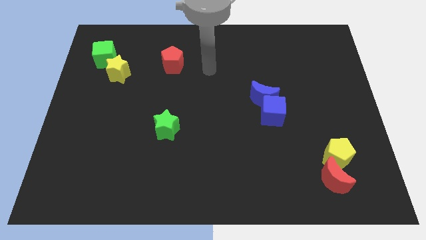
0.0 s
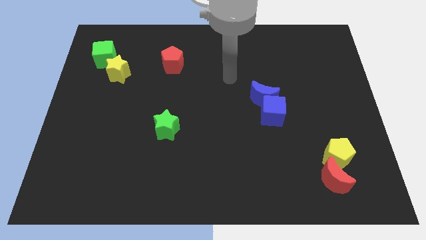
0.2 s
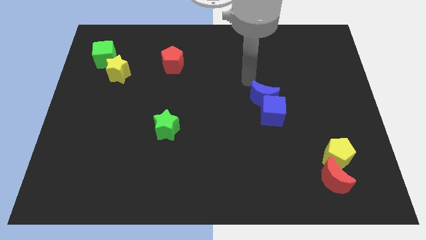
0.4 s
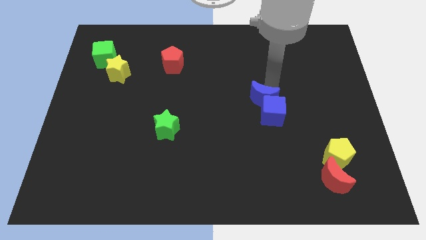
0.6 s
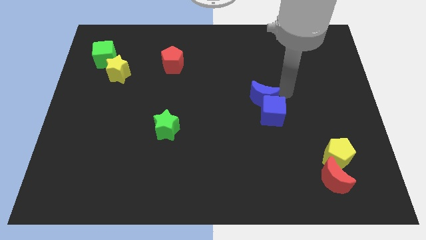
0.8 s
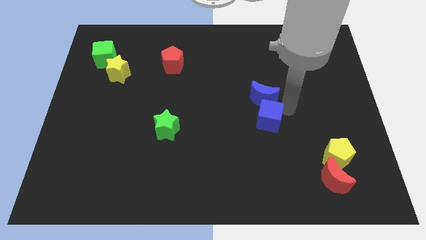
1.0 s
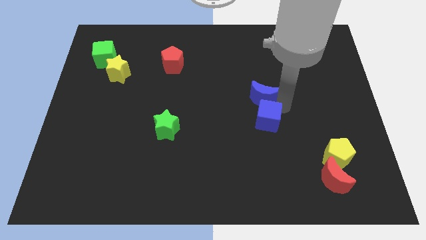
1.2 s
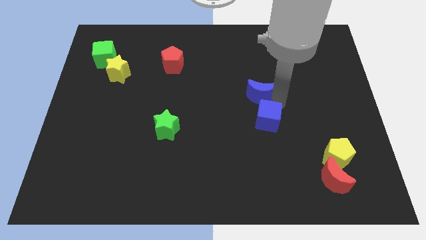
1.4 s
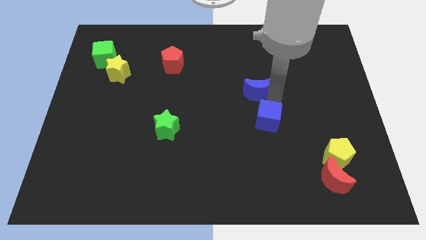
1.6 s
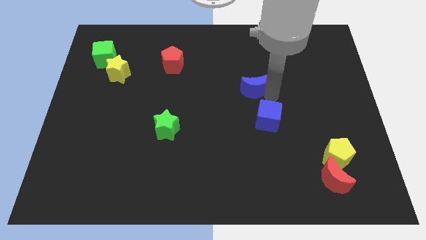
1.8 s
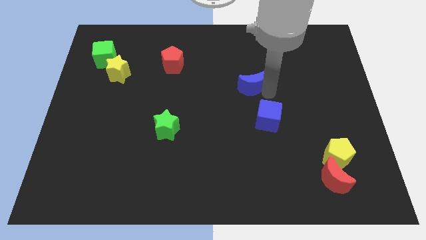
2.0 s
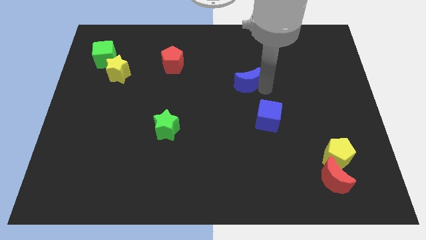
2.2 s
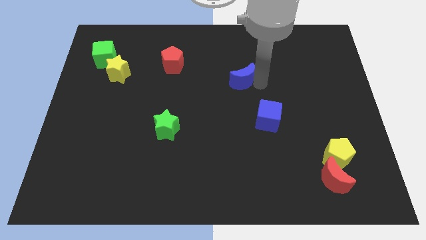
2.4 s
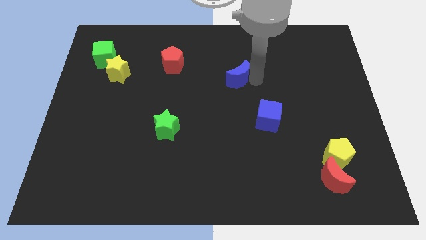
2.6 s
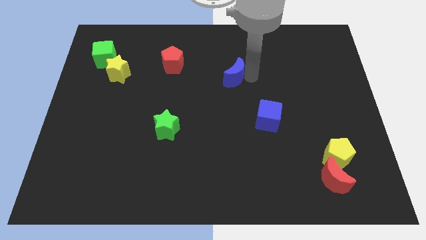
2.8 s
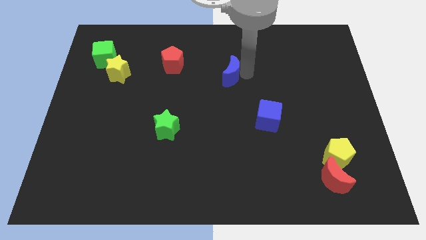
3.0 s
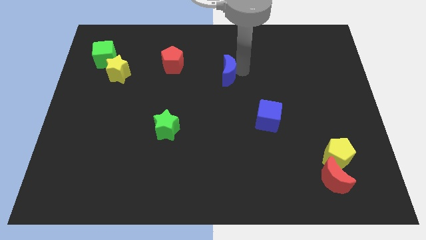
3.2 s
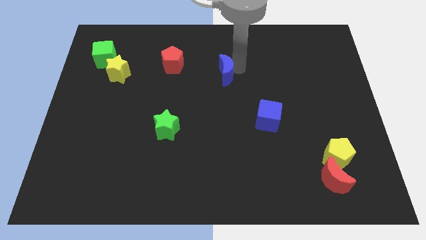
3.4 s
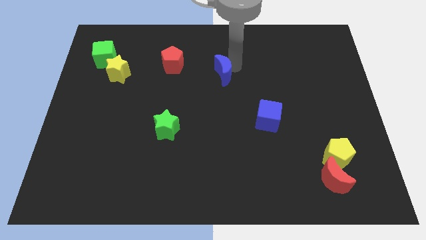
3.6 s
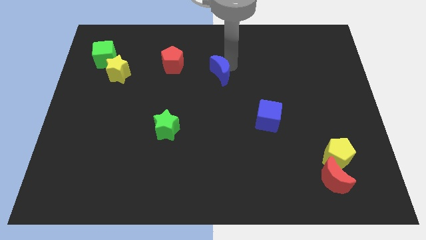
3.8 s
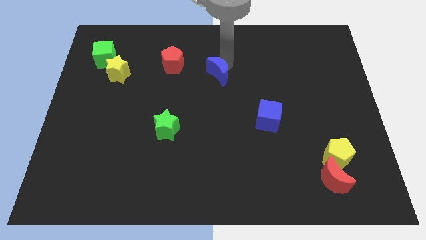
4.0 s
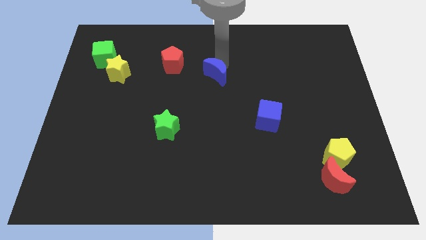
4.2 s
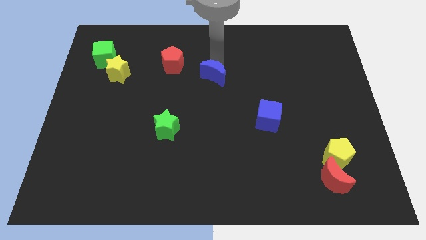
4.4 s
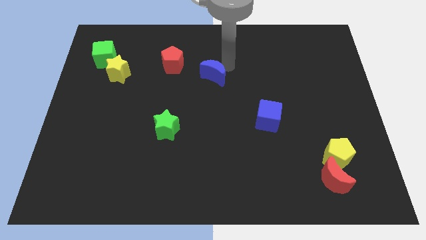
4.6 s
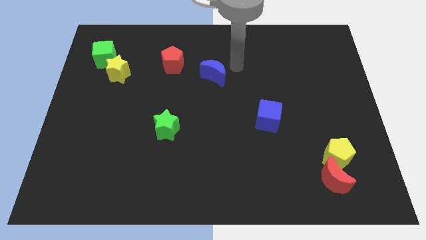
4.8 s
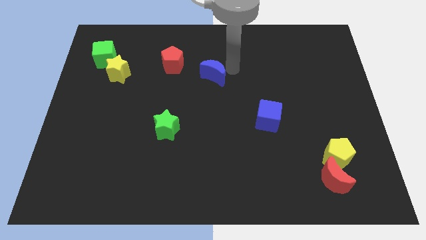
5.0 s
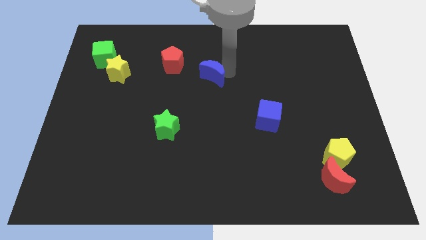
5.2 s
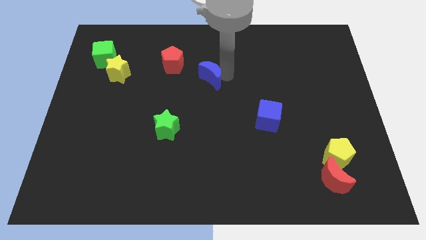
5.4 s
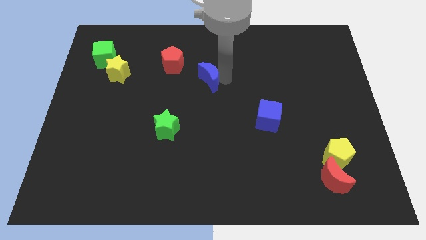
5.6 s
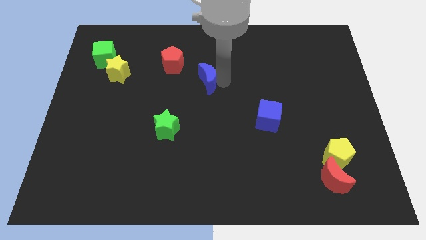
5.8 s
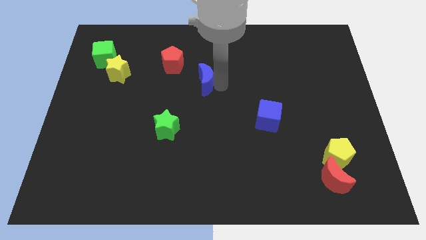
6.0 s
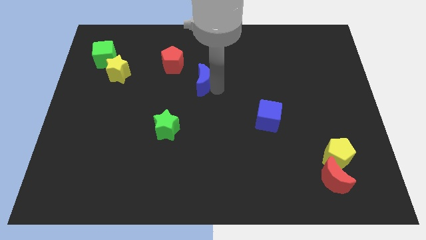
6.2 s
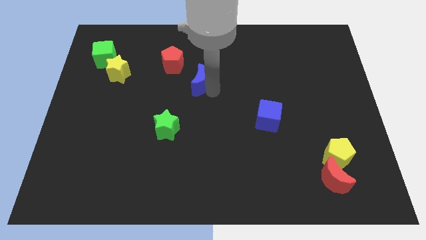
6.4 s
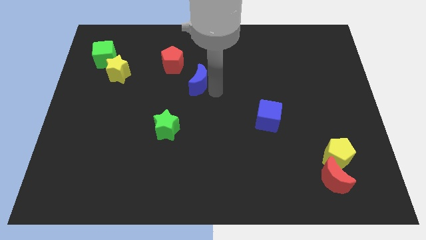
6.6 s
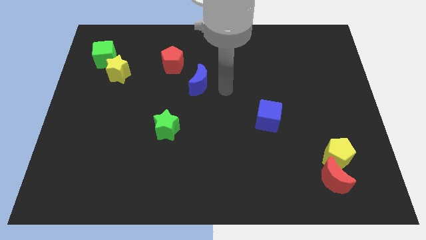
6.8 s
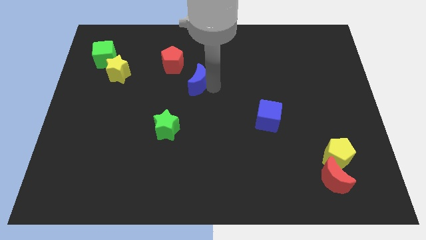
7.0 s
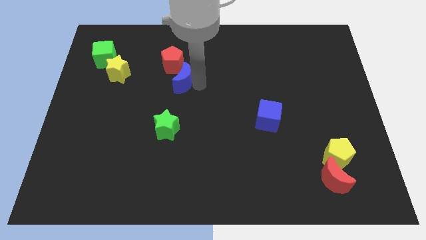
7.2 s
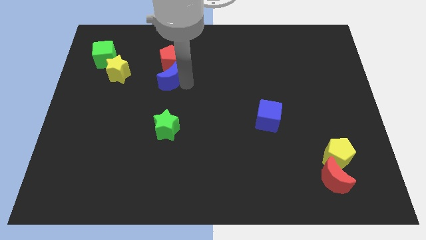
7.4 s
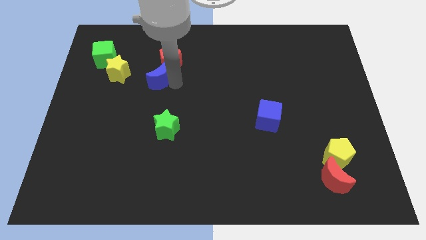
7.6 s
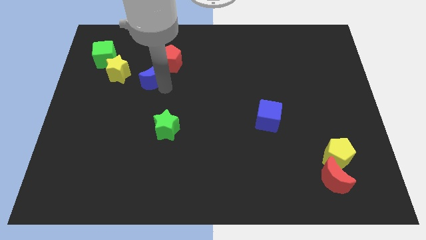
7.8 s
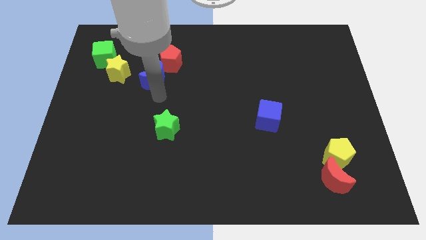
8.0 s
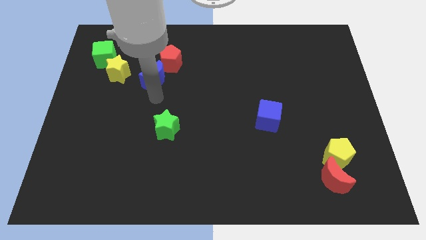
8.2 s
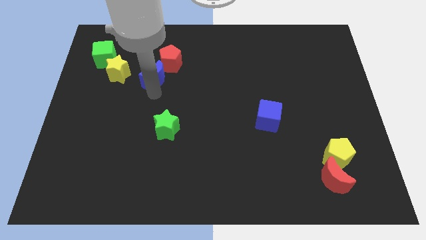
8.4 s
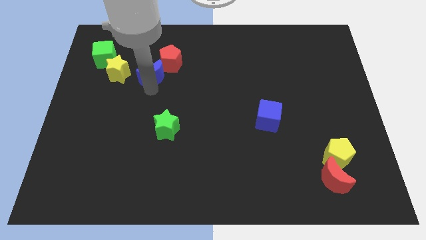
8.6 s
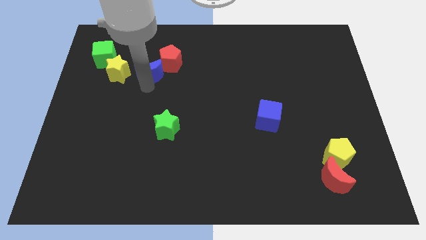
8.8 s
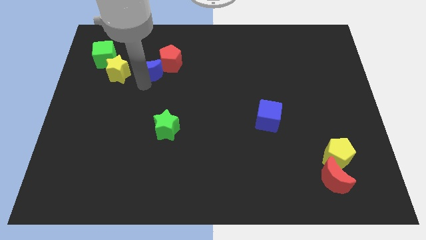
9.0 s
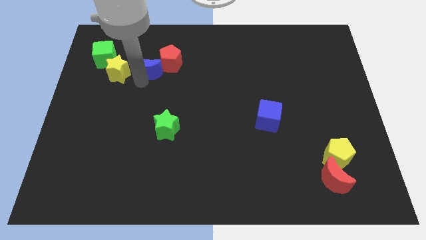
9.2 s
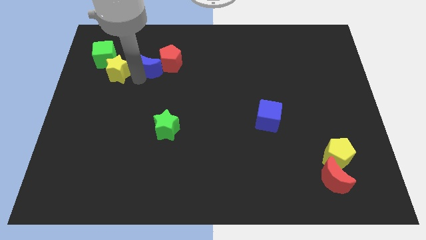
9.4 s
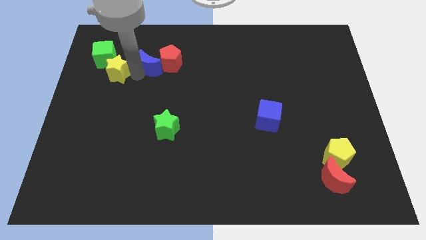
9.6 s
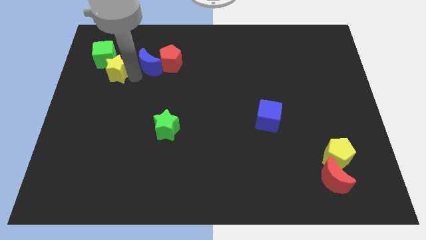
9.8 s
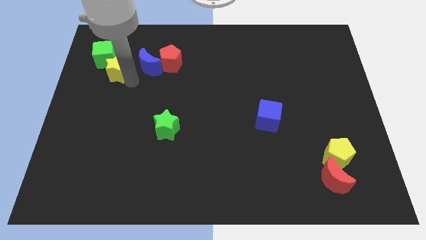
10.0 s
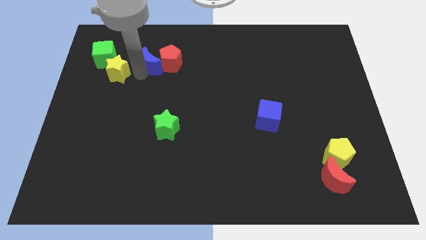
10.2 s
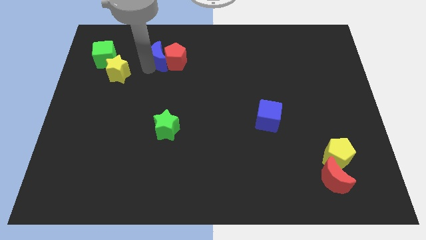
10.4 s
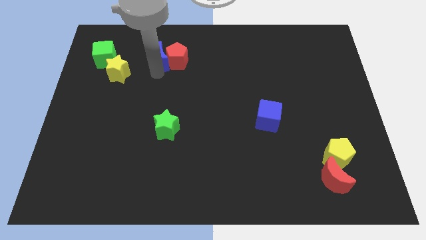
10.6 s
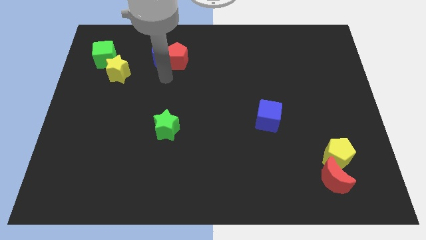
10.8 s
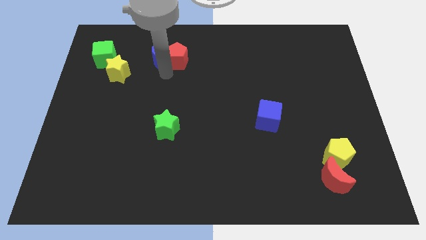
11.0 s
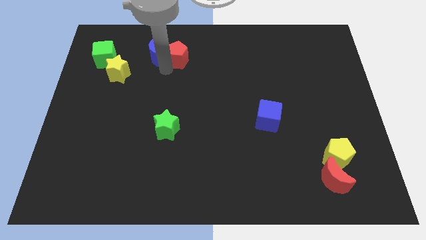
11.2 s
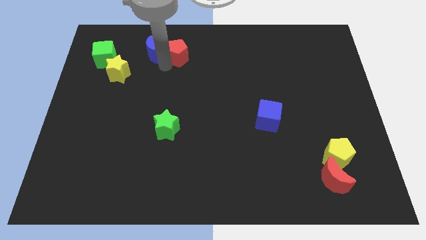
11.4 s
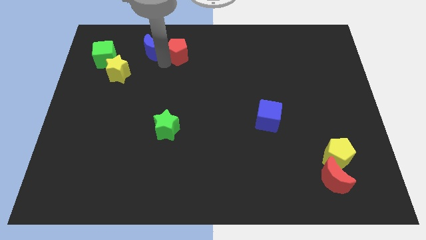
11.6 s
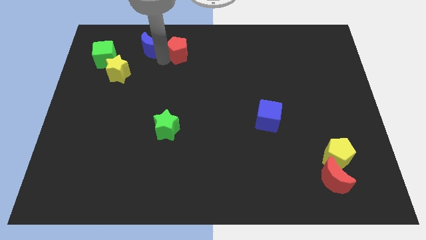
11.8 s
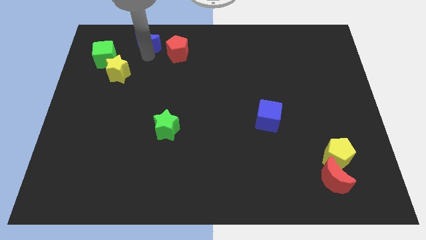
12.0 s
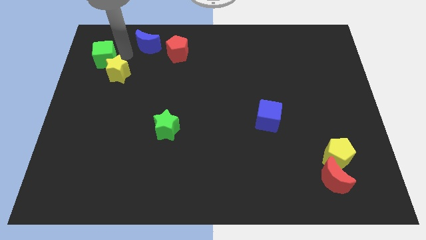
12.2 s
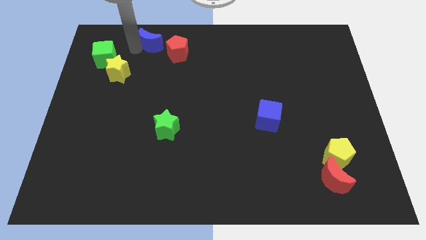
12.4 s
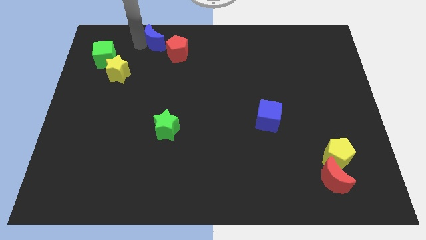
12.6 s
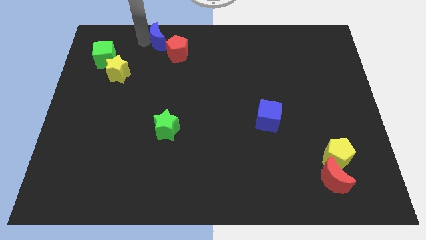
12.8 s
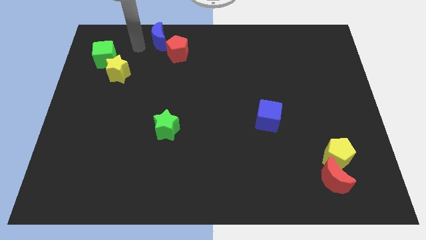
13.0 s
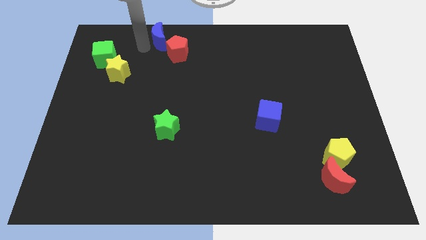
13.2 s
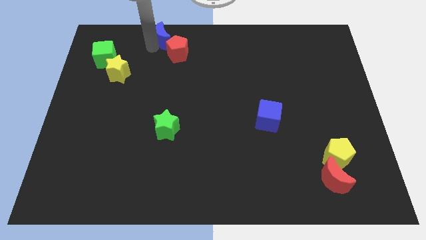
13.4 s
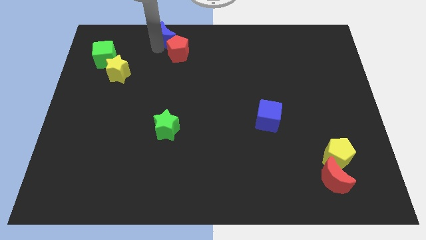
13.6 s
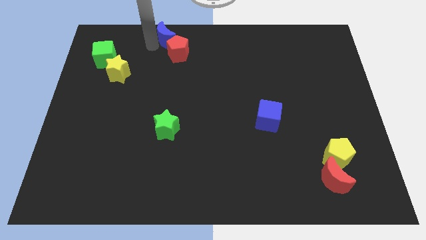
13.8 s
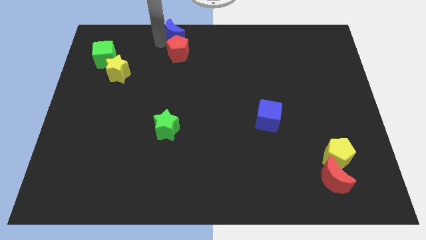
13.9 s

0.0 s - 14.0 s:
slide the blue moon to the top side
